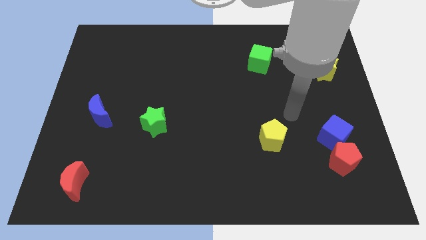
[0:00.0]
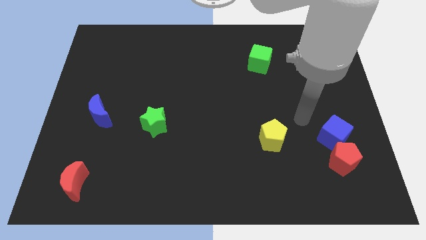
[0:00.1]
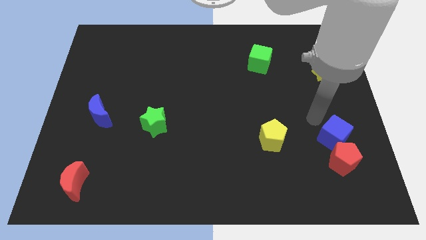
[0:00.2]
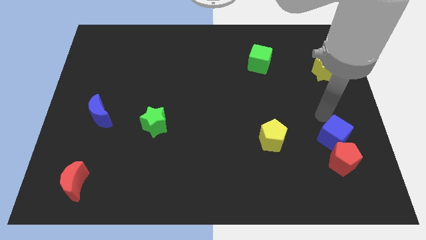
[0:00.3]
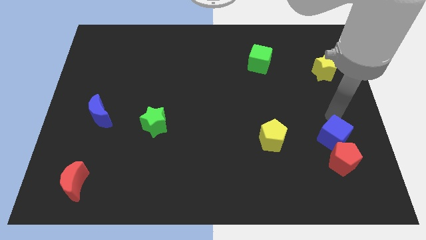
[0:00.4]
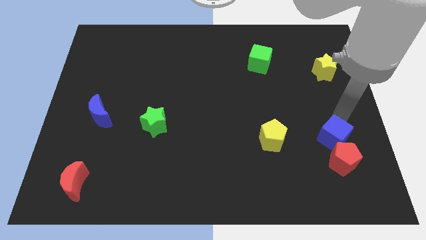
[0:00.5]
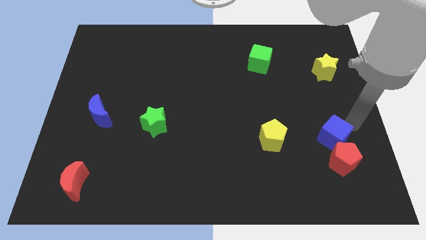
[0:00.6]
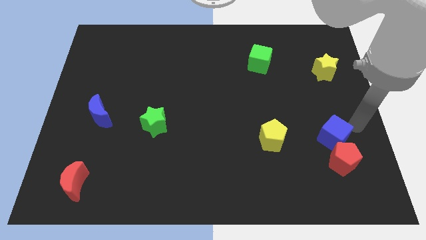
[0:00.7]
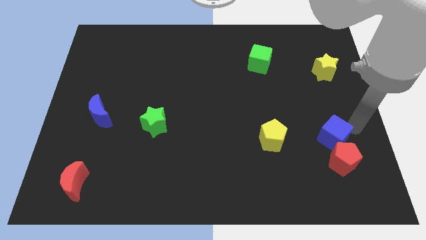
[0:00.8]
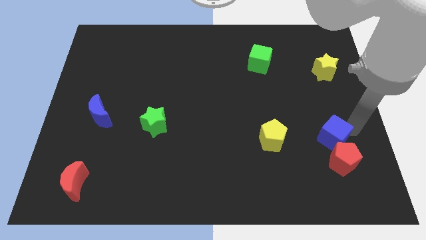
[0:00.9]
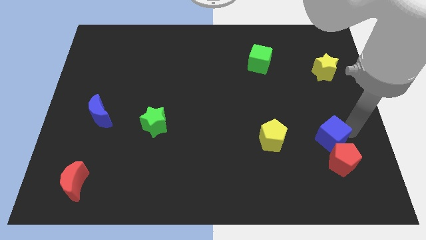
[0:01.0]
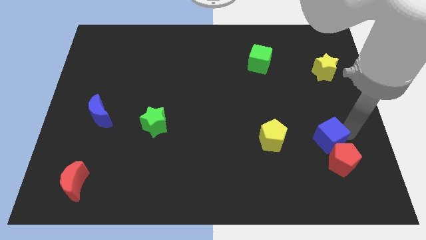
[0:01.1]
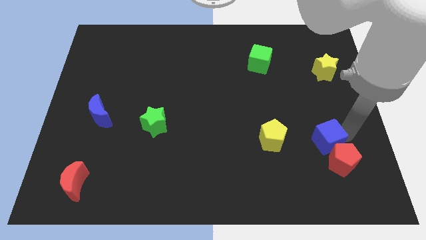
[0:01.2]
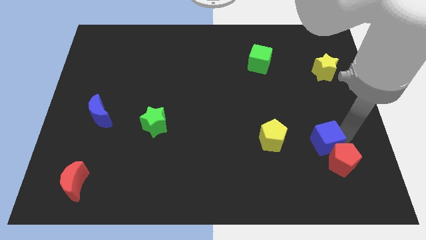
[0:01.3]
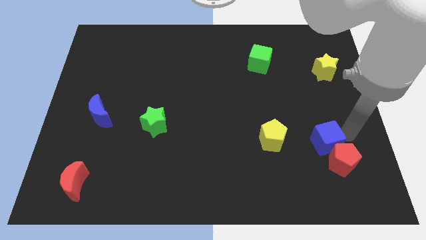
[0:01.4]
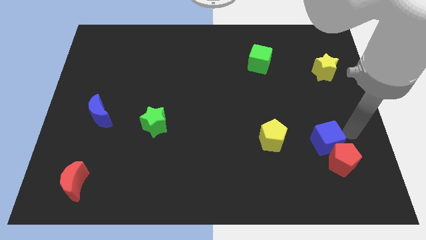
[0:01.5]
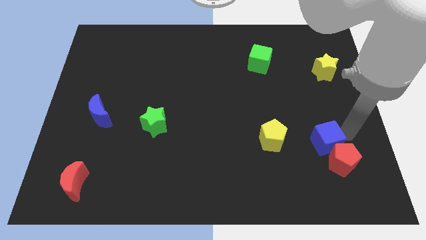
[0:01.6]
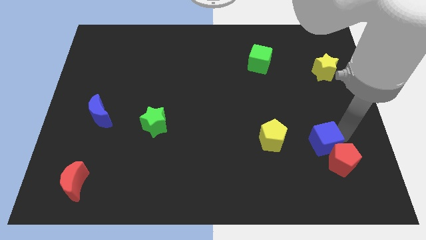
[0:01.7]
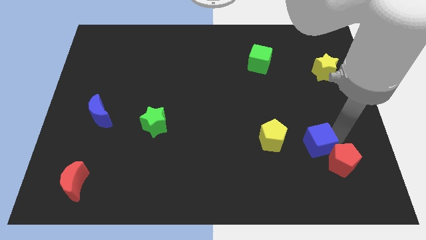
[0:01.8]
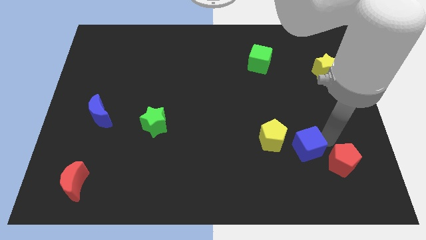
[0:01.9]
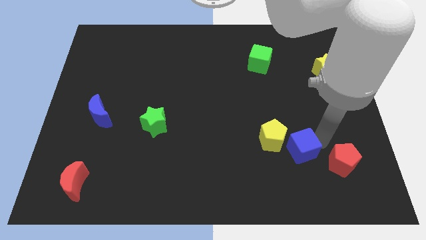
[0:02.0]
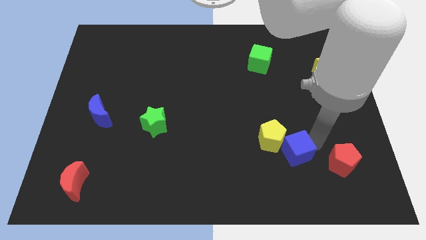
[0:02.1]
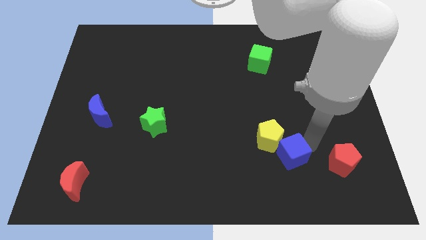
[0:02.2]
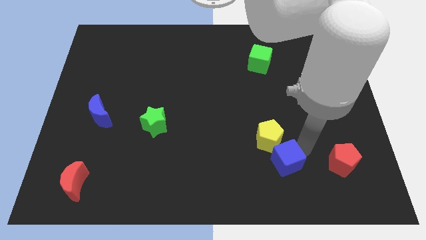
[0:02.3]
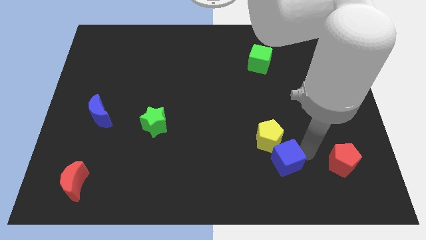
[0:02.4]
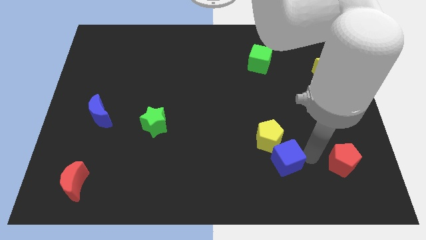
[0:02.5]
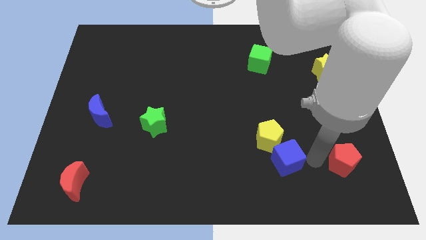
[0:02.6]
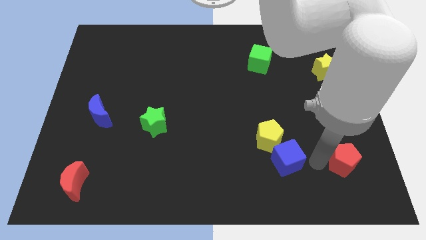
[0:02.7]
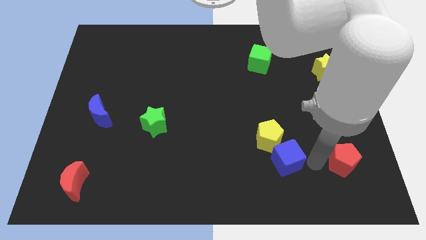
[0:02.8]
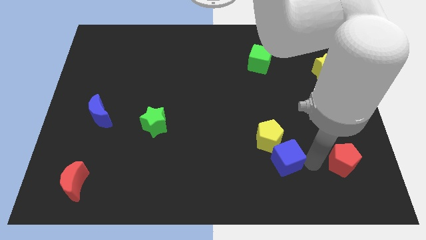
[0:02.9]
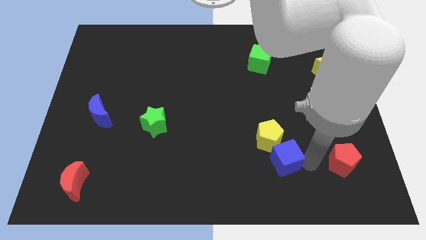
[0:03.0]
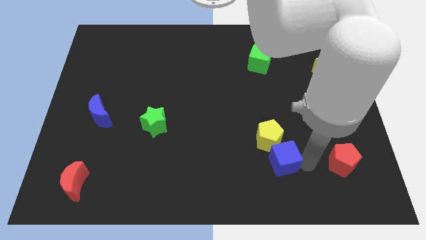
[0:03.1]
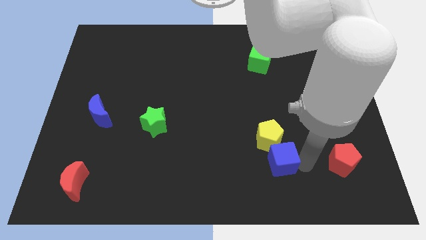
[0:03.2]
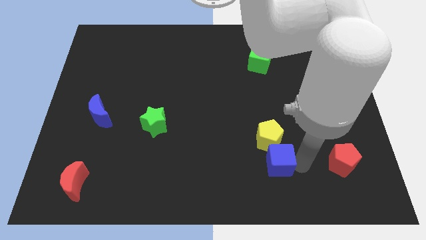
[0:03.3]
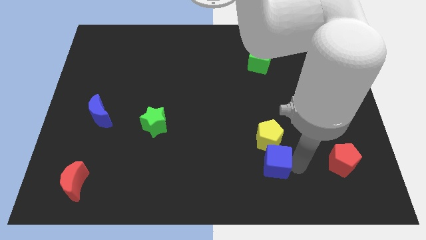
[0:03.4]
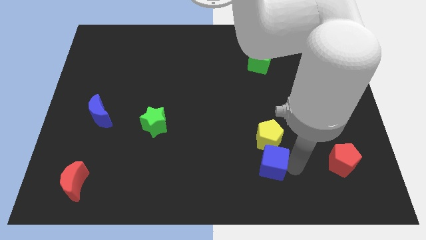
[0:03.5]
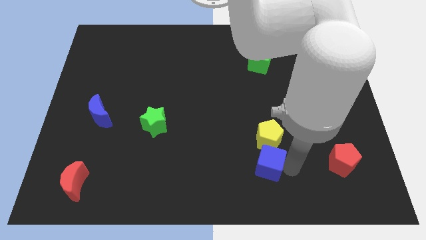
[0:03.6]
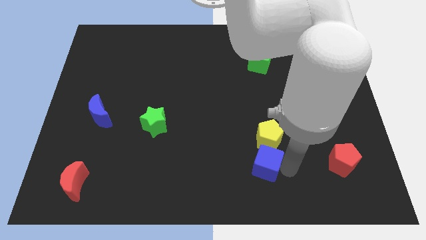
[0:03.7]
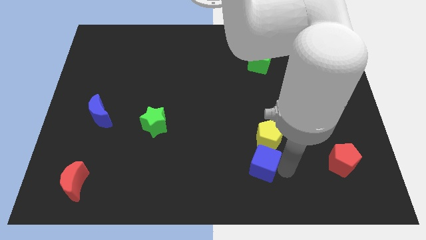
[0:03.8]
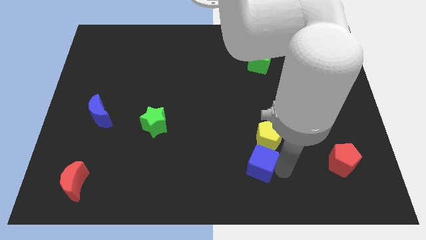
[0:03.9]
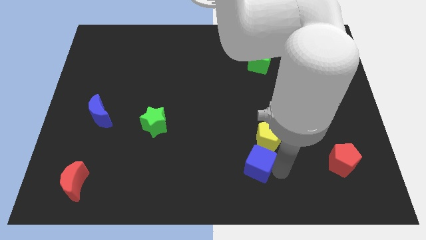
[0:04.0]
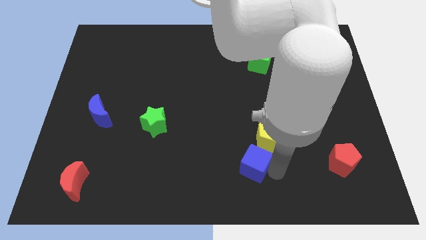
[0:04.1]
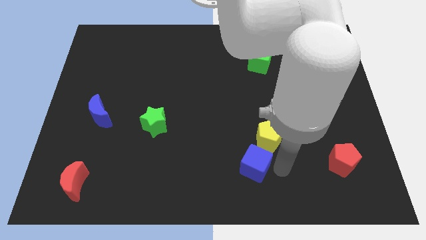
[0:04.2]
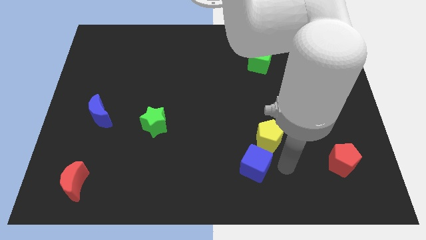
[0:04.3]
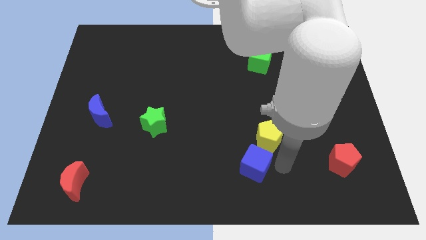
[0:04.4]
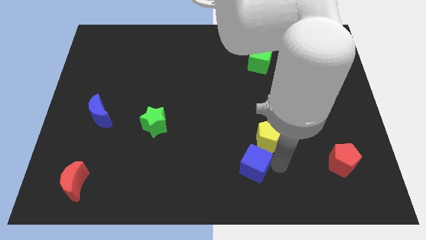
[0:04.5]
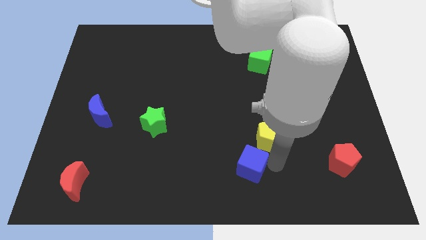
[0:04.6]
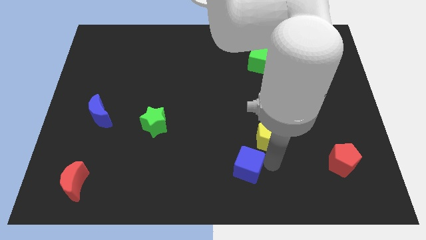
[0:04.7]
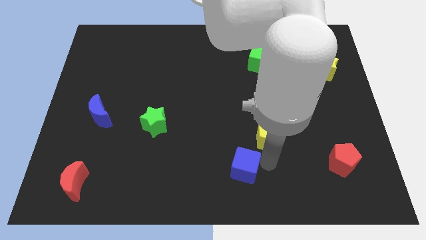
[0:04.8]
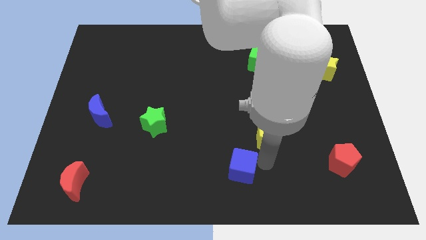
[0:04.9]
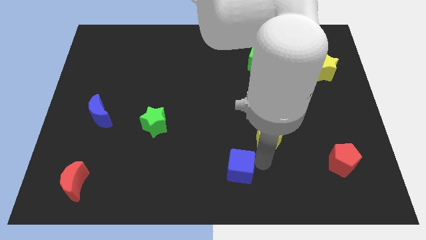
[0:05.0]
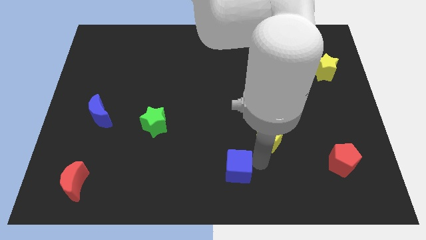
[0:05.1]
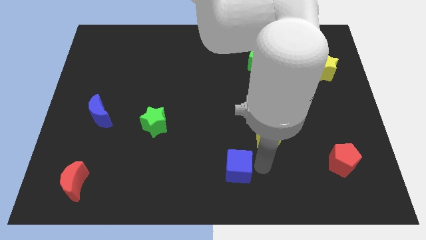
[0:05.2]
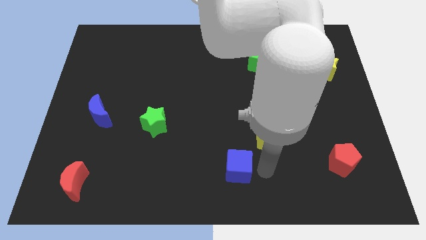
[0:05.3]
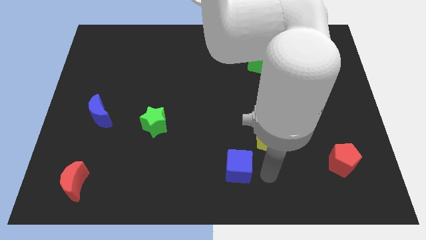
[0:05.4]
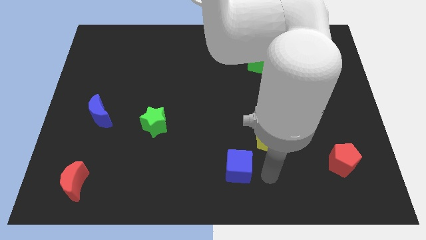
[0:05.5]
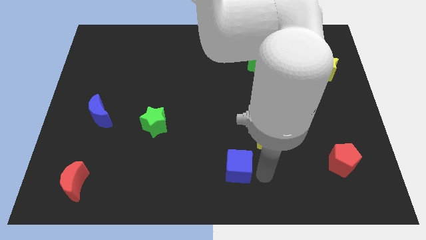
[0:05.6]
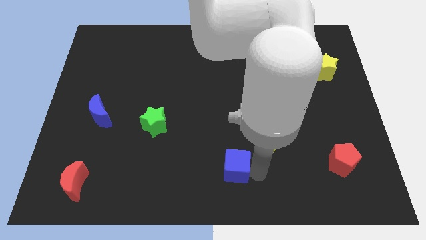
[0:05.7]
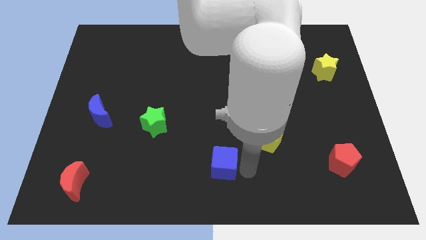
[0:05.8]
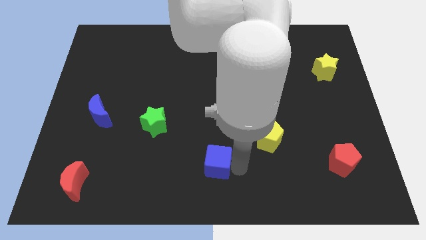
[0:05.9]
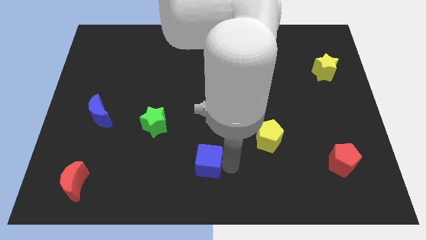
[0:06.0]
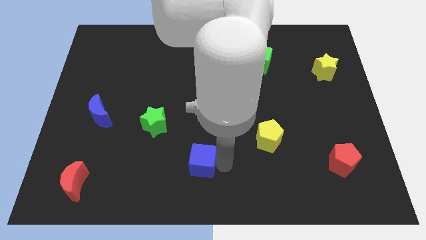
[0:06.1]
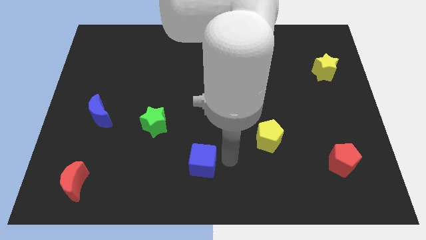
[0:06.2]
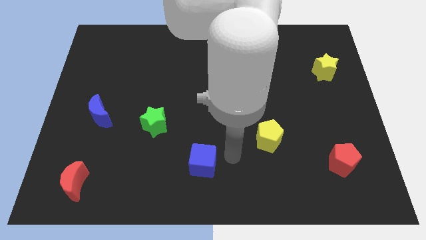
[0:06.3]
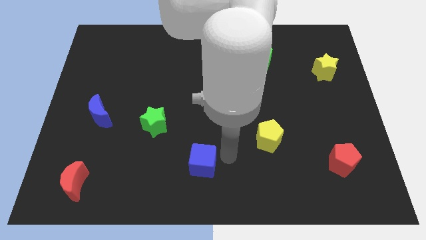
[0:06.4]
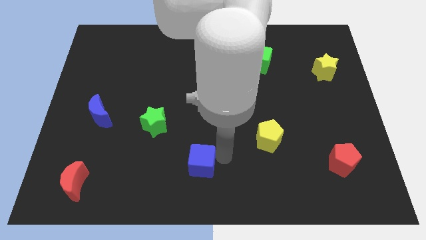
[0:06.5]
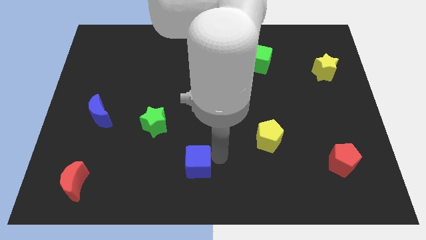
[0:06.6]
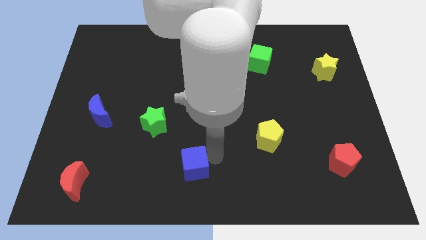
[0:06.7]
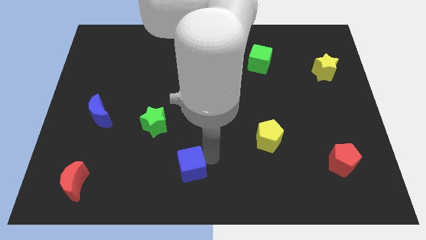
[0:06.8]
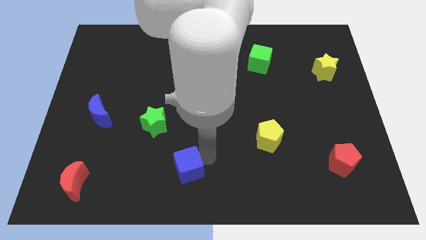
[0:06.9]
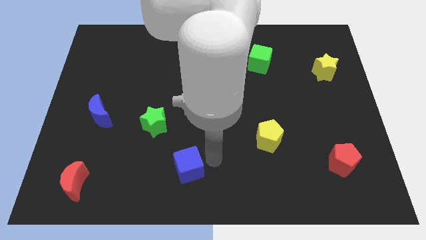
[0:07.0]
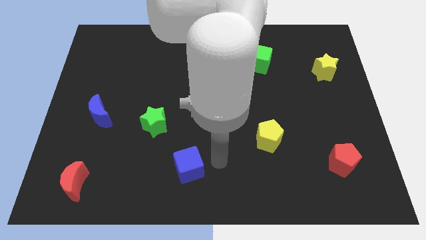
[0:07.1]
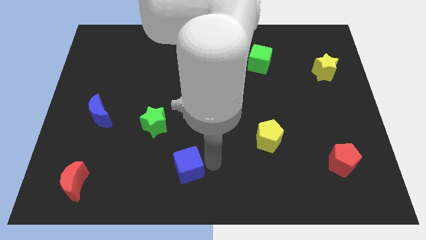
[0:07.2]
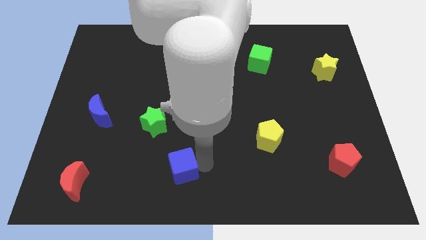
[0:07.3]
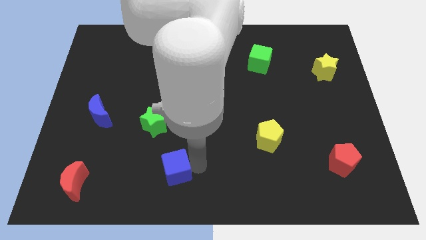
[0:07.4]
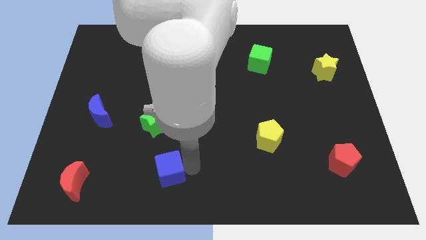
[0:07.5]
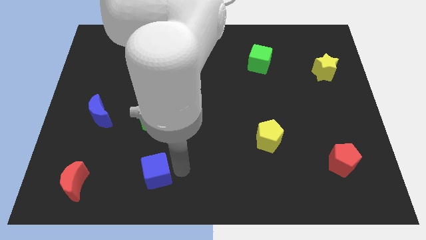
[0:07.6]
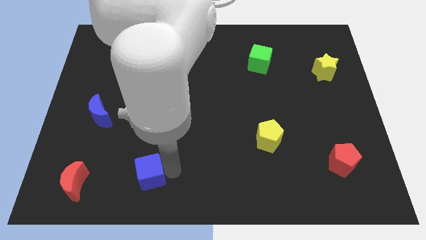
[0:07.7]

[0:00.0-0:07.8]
slide the blue cube to the right of the red moon
